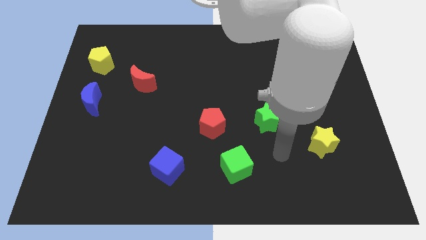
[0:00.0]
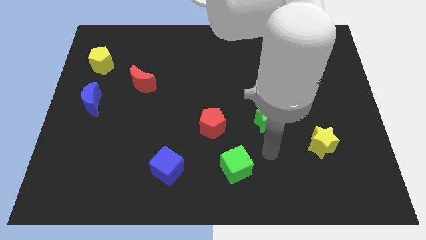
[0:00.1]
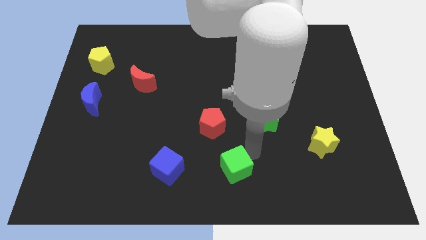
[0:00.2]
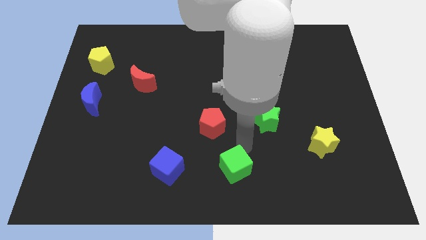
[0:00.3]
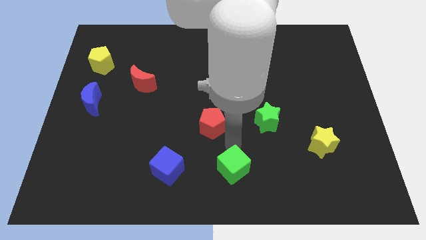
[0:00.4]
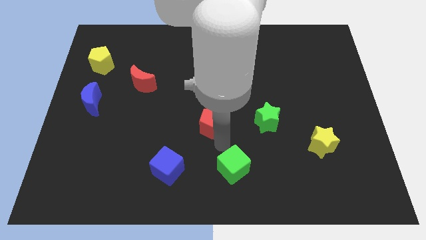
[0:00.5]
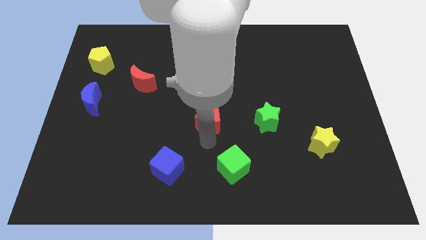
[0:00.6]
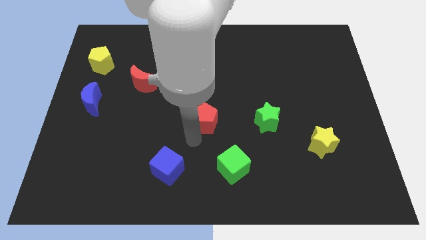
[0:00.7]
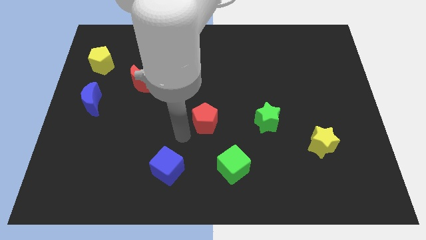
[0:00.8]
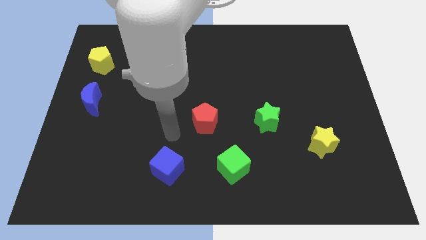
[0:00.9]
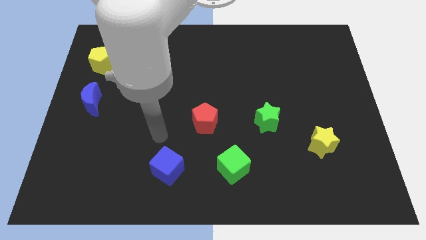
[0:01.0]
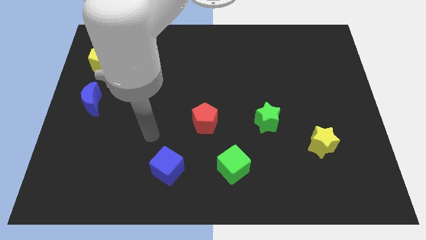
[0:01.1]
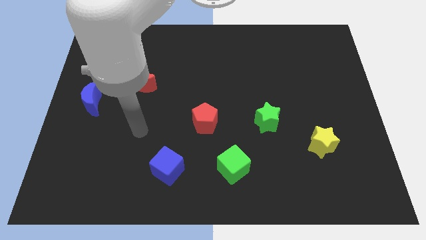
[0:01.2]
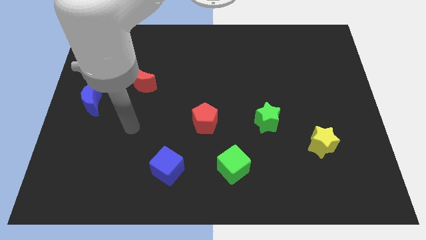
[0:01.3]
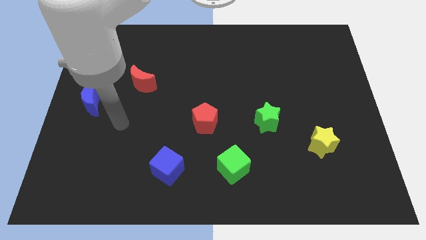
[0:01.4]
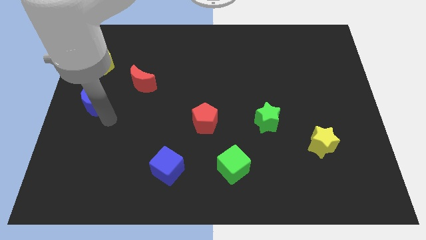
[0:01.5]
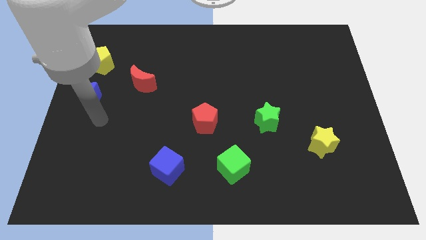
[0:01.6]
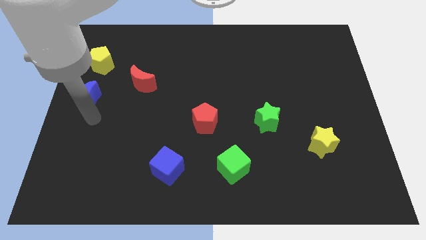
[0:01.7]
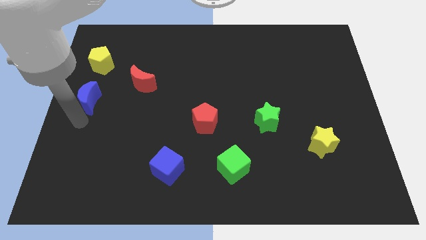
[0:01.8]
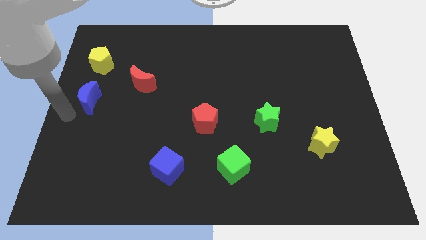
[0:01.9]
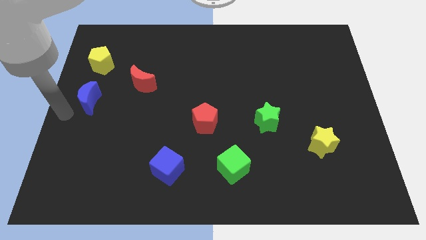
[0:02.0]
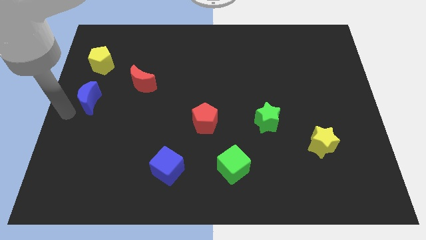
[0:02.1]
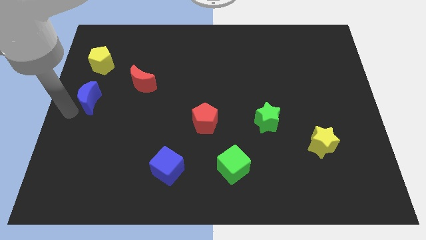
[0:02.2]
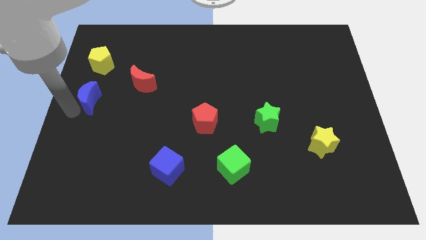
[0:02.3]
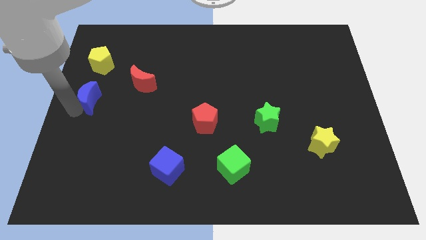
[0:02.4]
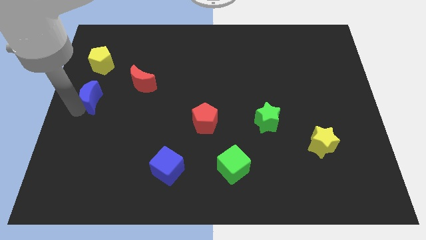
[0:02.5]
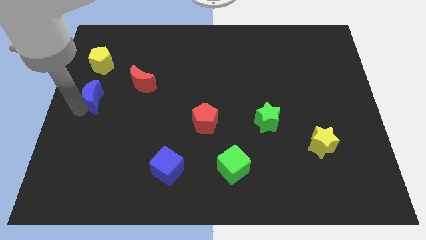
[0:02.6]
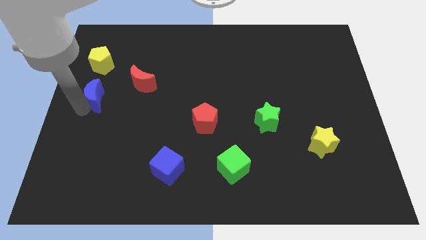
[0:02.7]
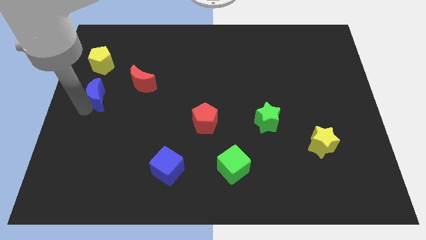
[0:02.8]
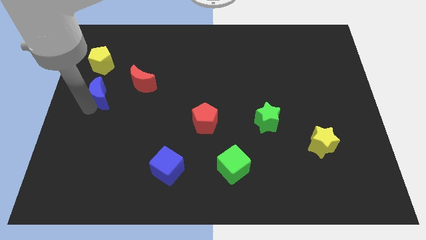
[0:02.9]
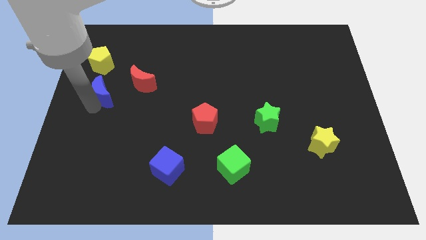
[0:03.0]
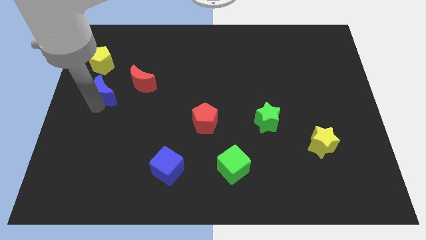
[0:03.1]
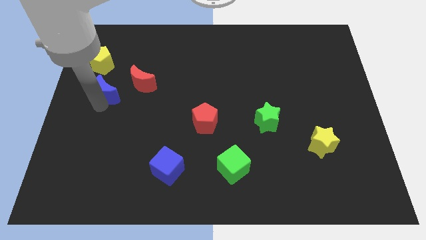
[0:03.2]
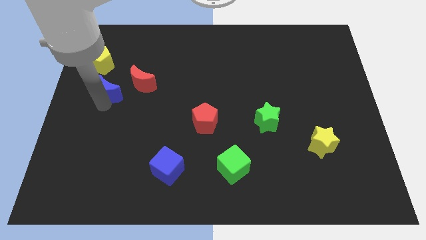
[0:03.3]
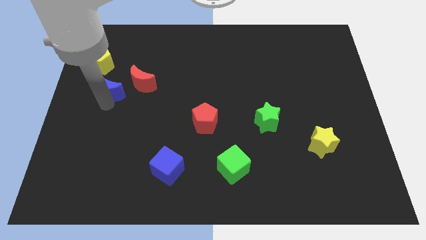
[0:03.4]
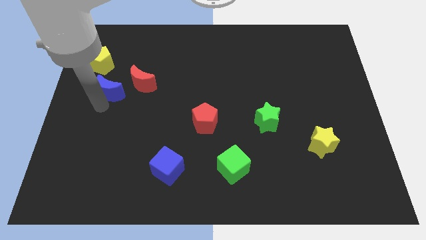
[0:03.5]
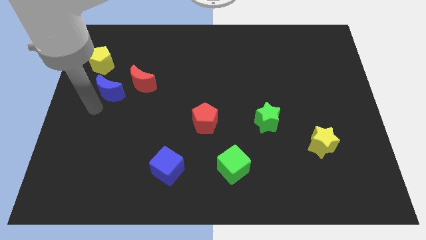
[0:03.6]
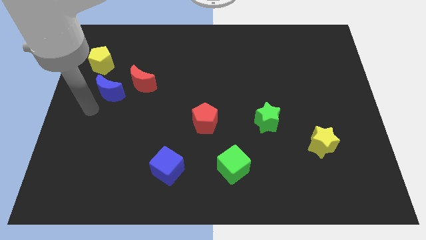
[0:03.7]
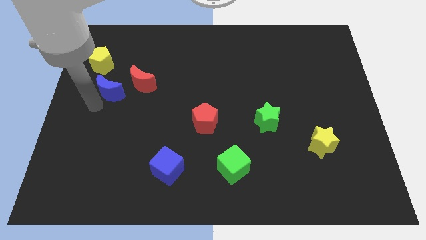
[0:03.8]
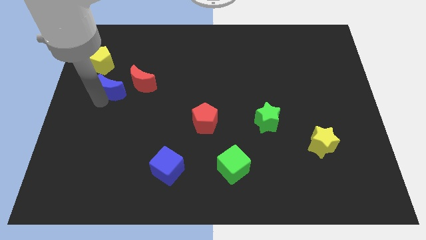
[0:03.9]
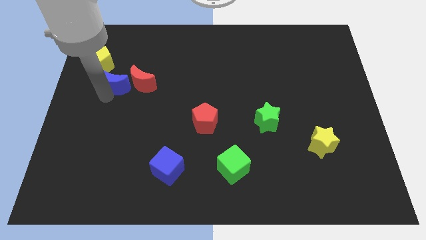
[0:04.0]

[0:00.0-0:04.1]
slightly slide the blue moon up and then right

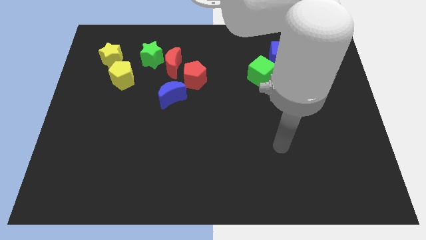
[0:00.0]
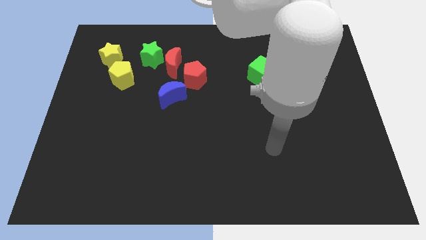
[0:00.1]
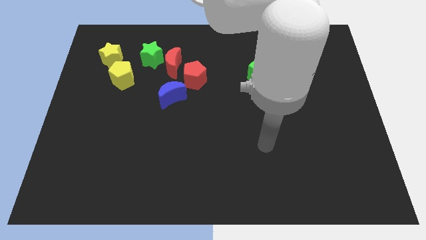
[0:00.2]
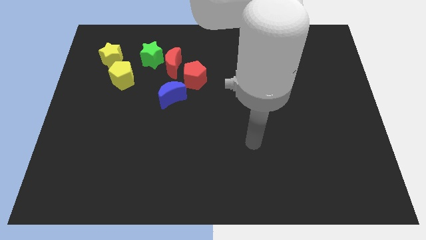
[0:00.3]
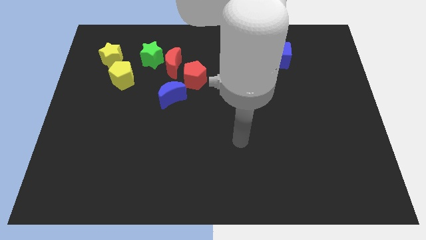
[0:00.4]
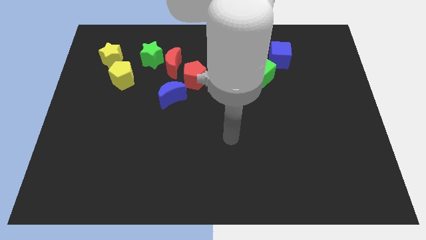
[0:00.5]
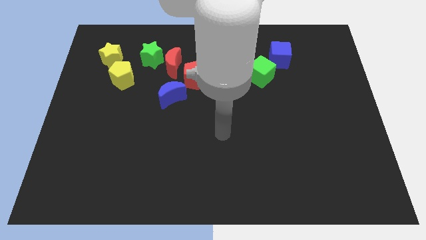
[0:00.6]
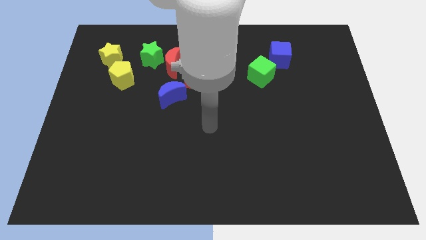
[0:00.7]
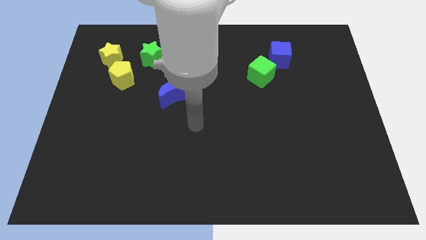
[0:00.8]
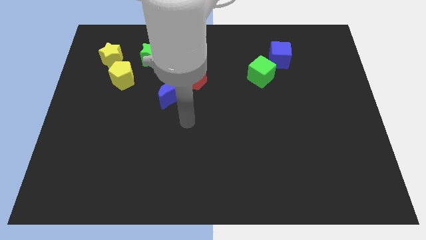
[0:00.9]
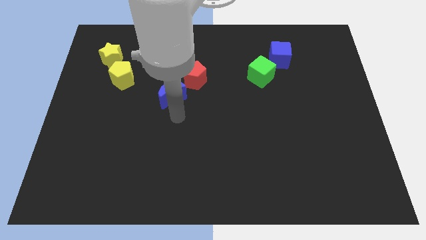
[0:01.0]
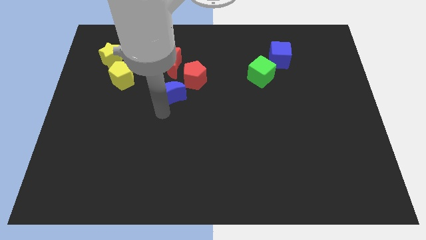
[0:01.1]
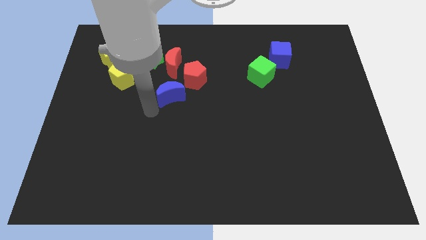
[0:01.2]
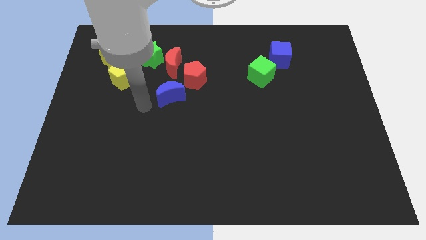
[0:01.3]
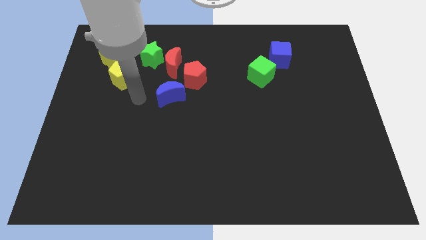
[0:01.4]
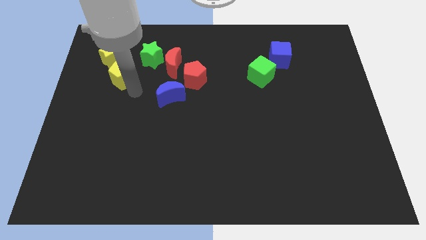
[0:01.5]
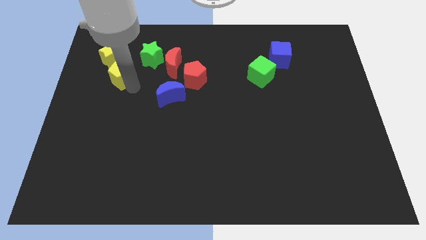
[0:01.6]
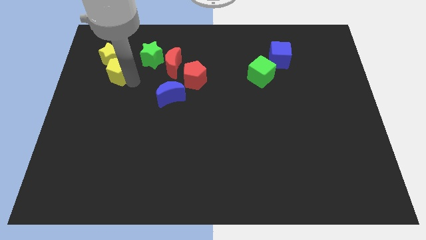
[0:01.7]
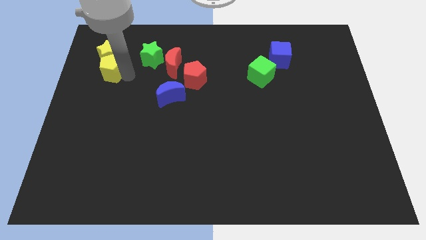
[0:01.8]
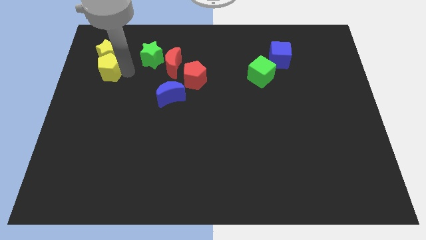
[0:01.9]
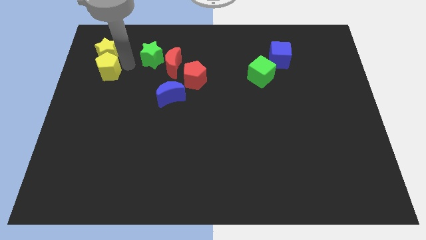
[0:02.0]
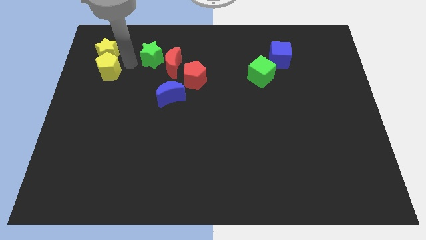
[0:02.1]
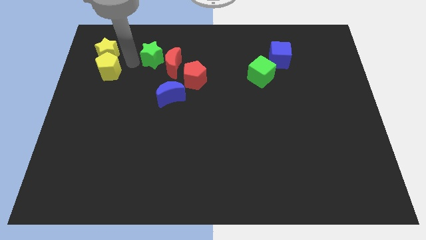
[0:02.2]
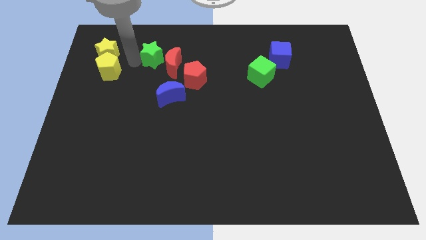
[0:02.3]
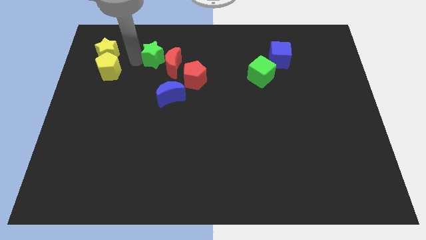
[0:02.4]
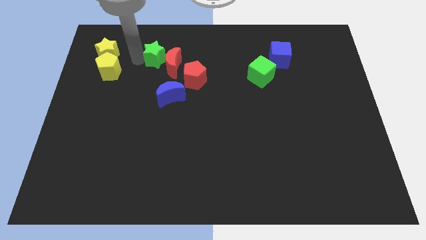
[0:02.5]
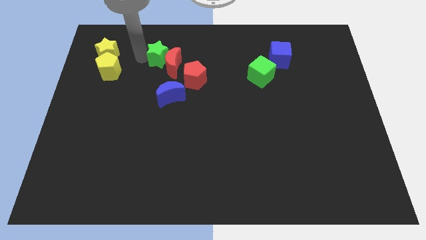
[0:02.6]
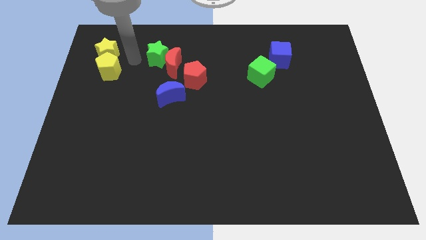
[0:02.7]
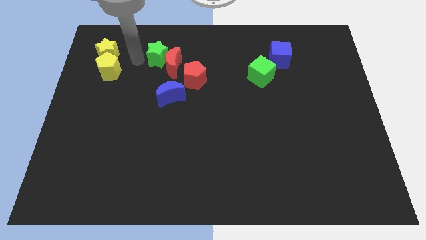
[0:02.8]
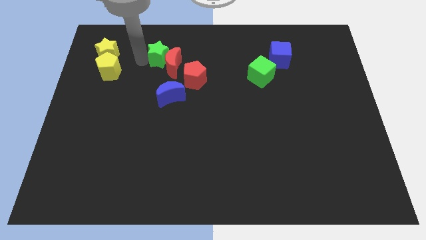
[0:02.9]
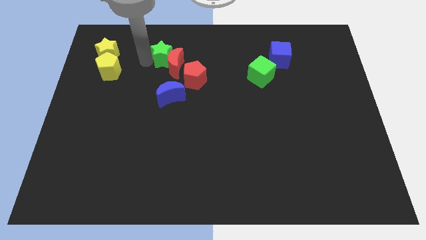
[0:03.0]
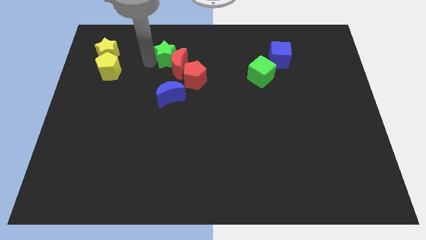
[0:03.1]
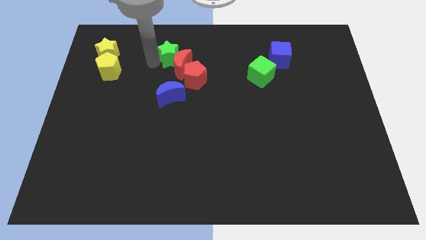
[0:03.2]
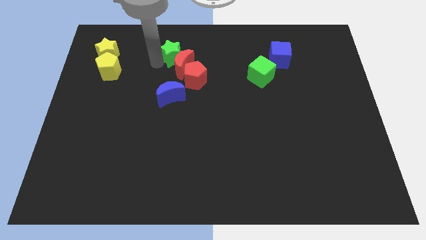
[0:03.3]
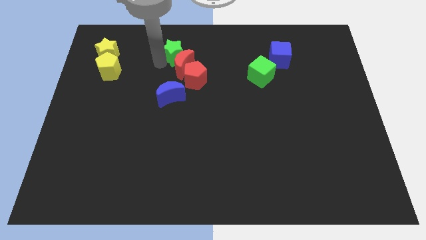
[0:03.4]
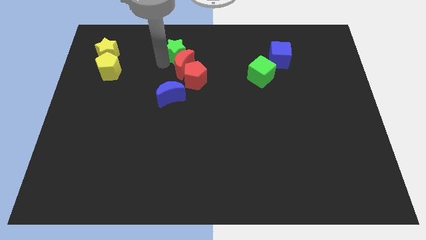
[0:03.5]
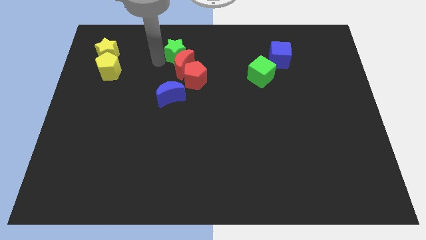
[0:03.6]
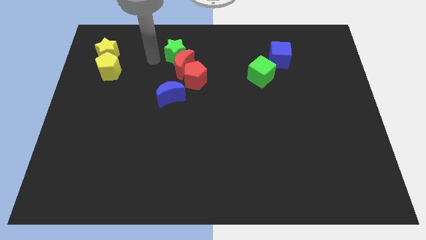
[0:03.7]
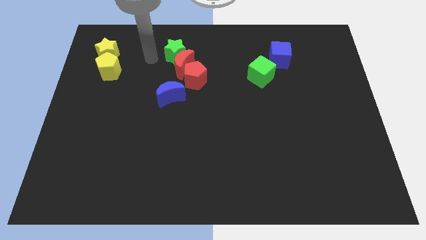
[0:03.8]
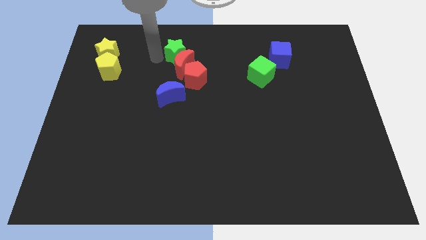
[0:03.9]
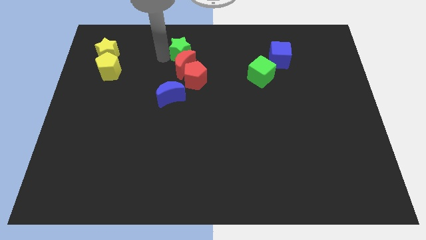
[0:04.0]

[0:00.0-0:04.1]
slightly push the green star right

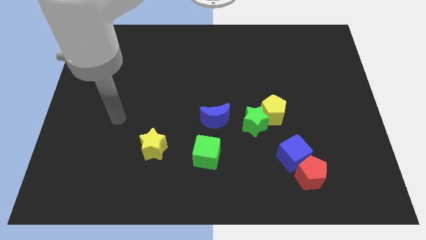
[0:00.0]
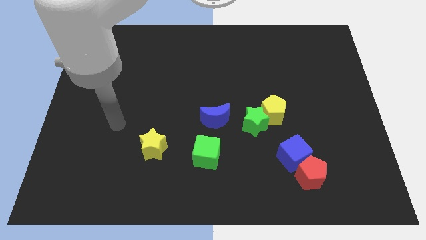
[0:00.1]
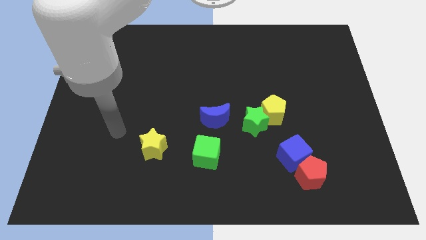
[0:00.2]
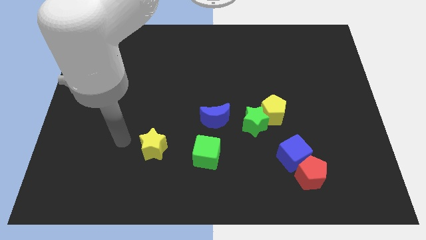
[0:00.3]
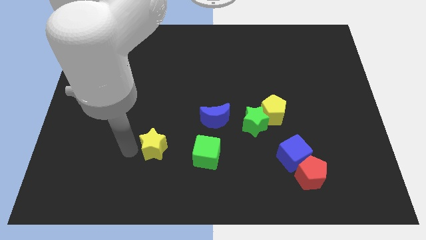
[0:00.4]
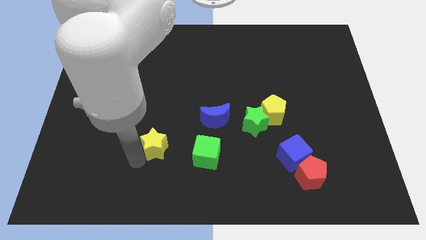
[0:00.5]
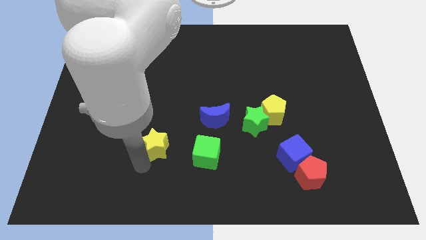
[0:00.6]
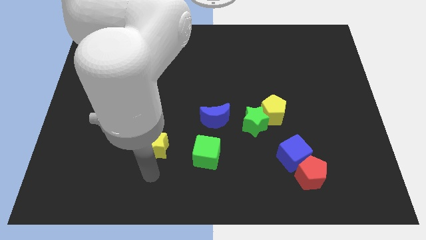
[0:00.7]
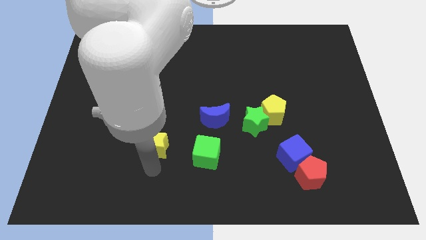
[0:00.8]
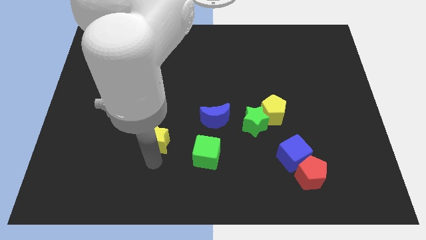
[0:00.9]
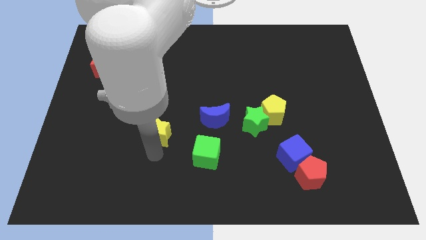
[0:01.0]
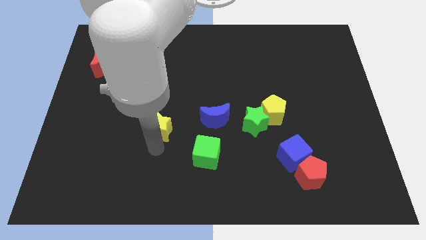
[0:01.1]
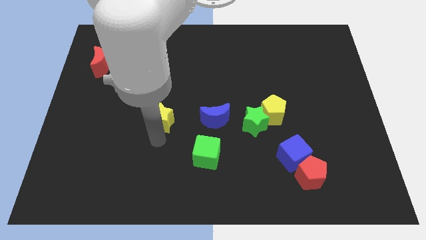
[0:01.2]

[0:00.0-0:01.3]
push the yellow star slightly up
